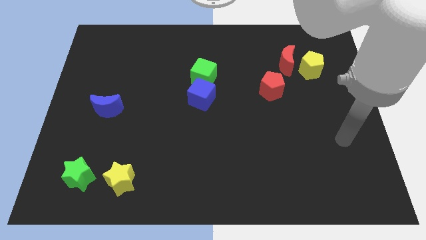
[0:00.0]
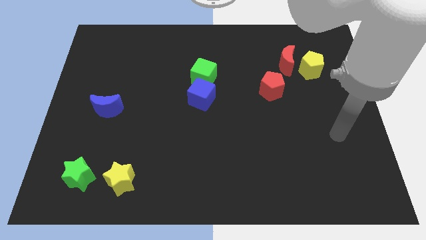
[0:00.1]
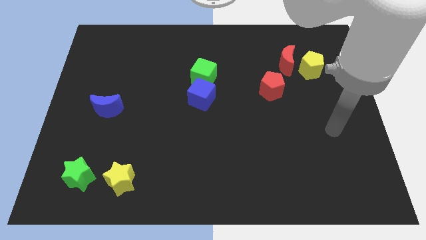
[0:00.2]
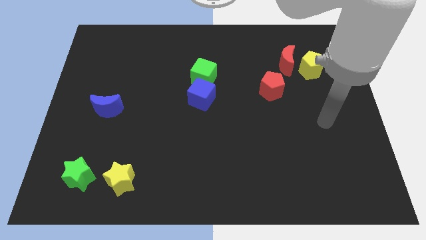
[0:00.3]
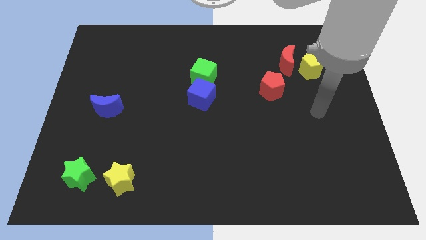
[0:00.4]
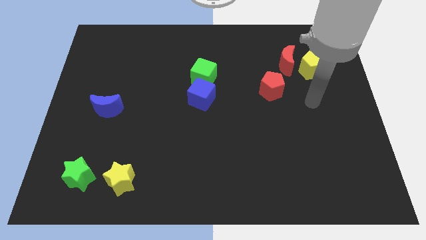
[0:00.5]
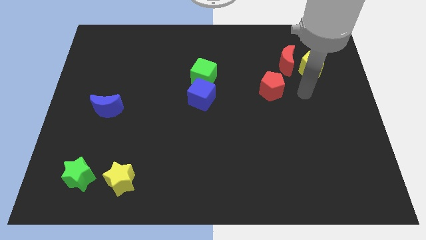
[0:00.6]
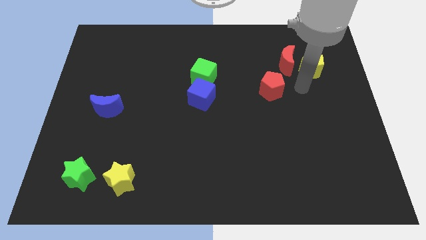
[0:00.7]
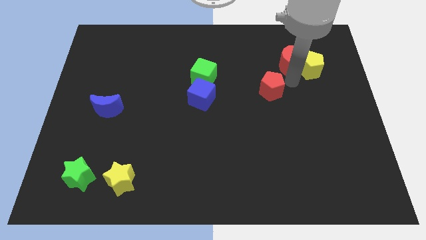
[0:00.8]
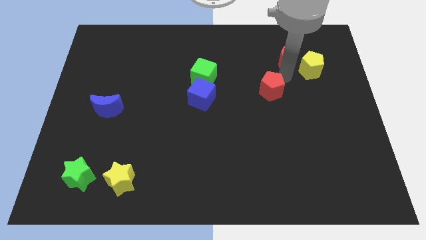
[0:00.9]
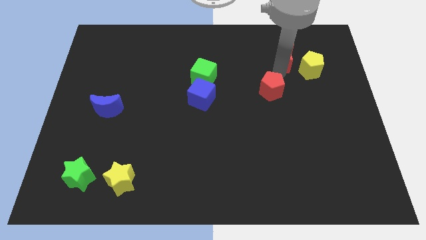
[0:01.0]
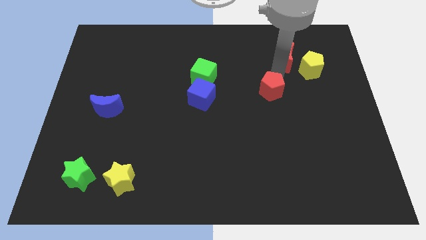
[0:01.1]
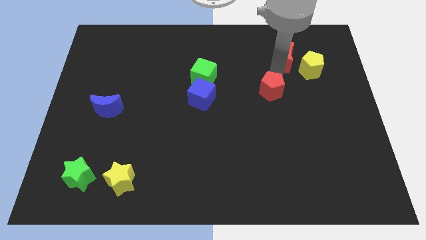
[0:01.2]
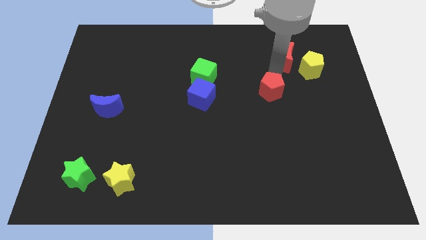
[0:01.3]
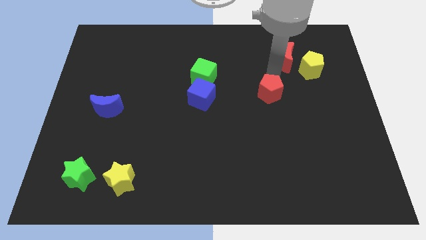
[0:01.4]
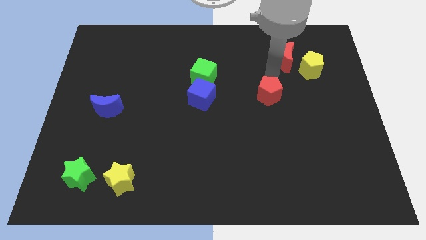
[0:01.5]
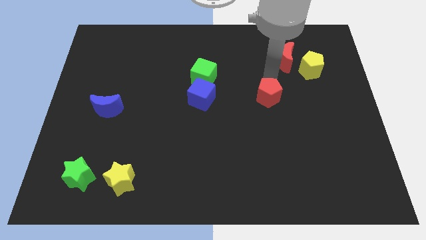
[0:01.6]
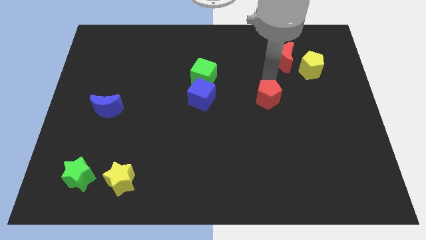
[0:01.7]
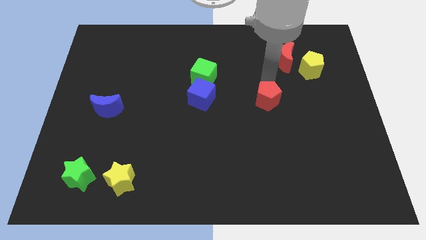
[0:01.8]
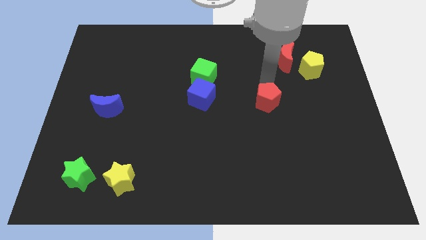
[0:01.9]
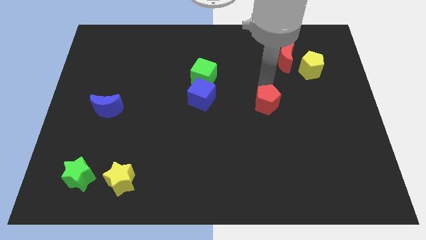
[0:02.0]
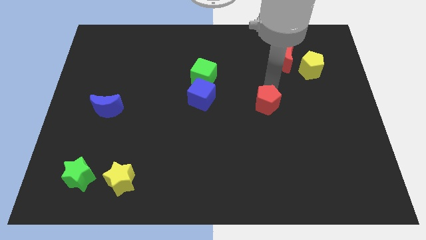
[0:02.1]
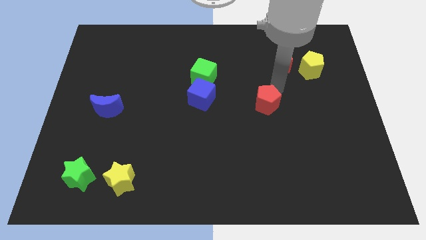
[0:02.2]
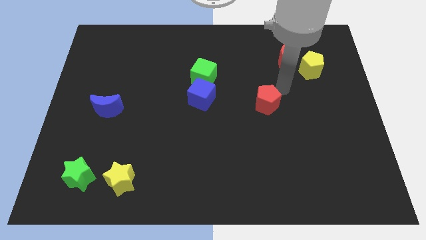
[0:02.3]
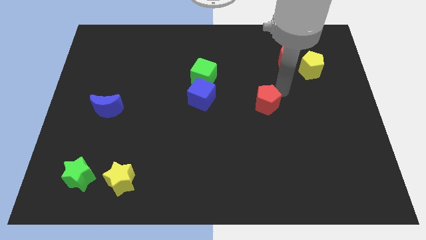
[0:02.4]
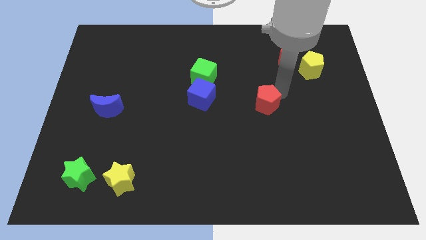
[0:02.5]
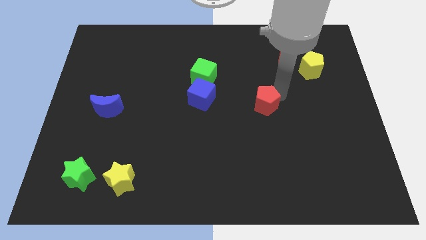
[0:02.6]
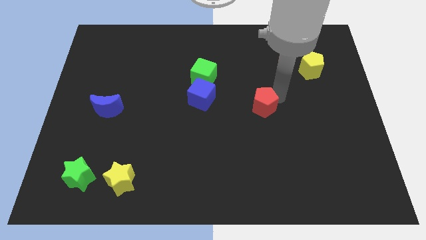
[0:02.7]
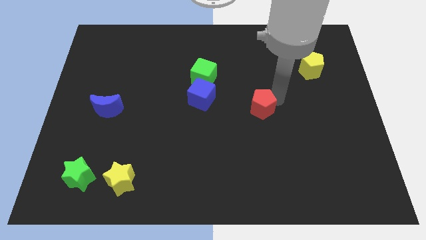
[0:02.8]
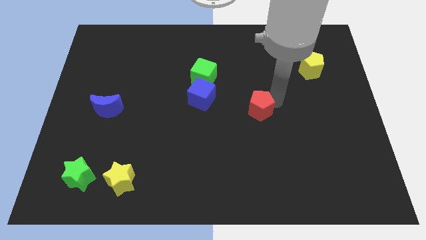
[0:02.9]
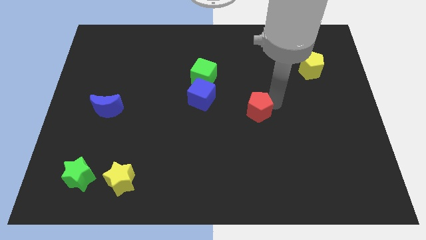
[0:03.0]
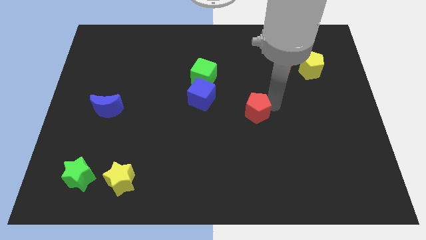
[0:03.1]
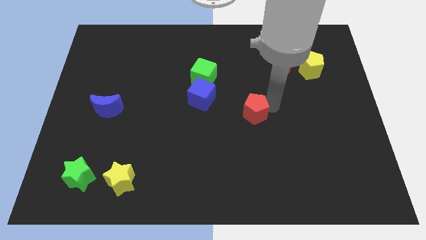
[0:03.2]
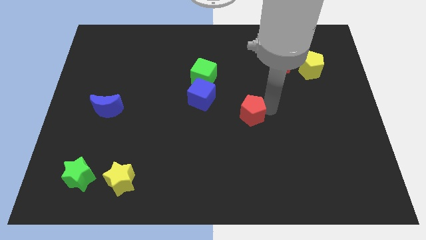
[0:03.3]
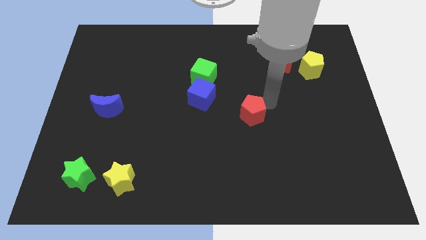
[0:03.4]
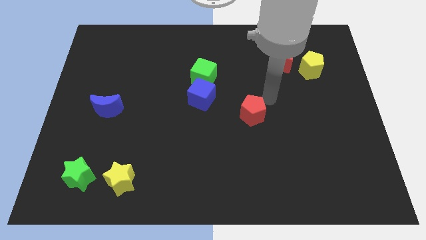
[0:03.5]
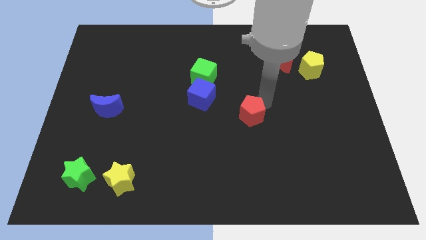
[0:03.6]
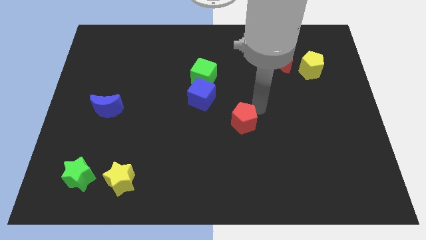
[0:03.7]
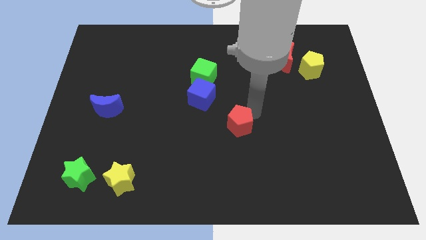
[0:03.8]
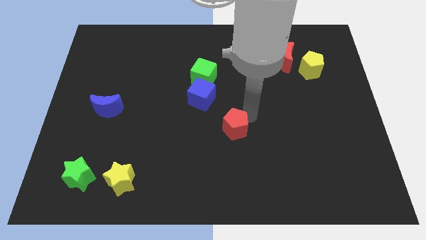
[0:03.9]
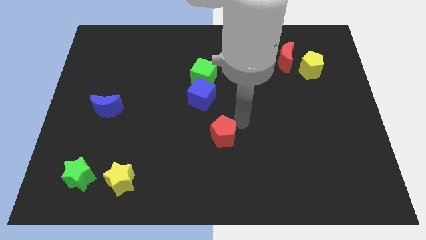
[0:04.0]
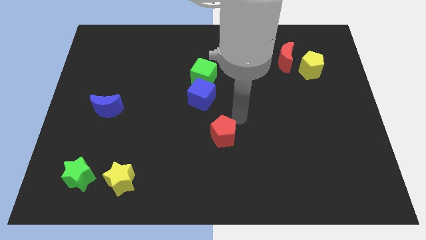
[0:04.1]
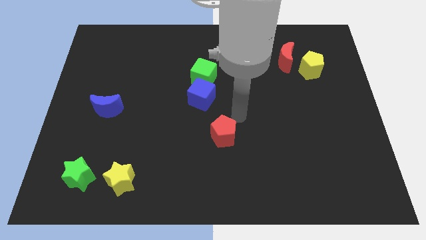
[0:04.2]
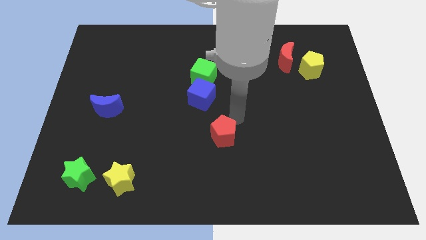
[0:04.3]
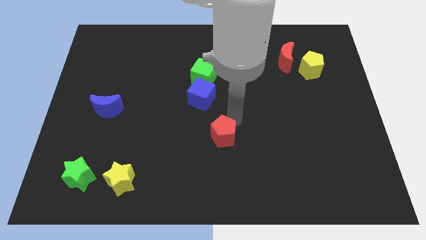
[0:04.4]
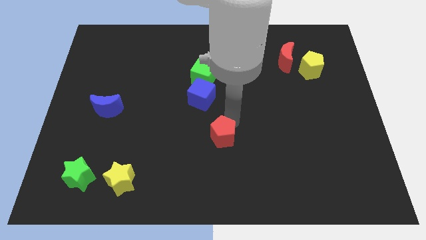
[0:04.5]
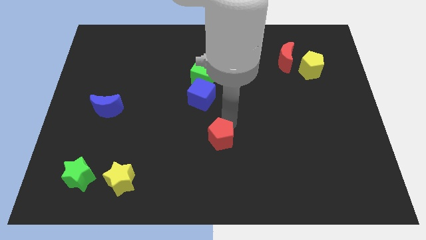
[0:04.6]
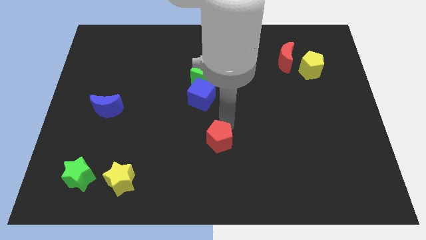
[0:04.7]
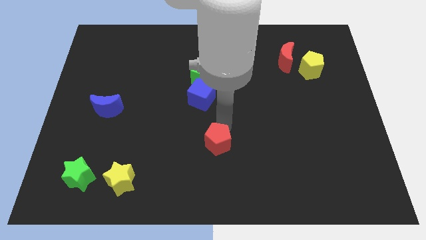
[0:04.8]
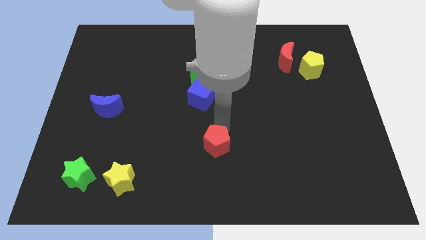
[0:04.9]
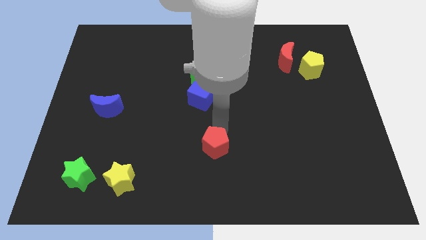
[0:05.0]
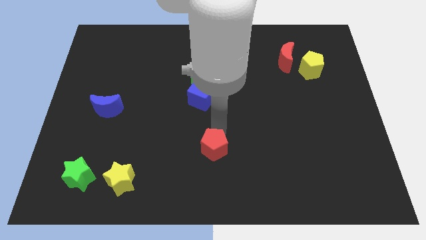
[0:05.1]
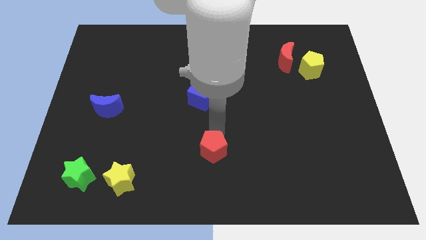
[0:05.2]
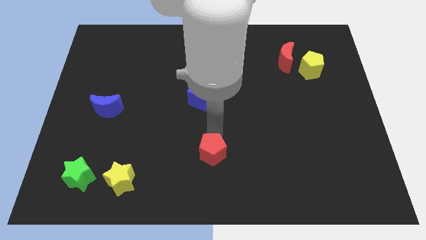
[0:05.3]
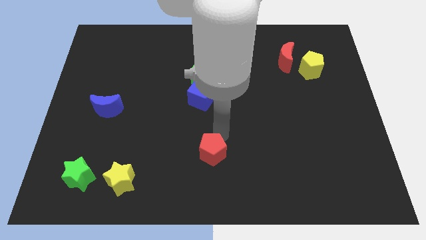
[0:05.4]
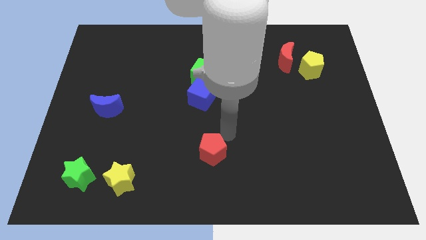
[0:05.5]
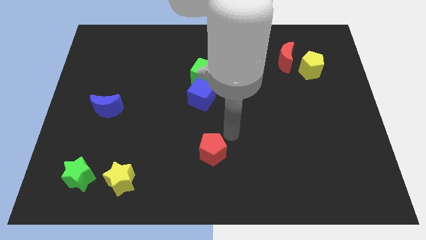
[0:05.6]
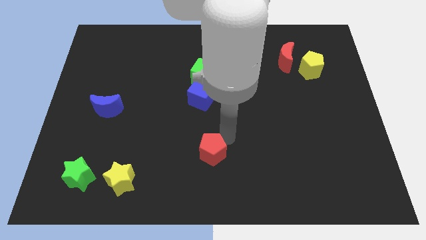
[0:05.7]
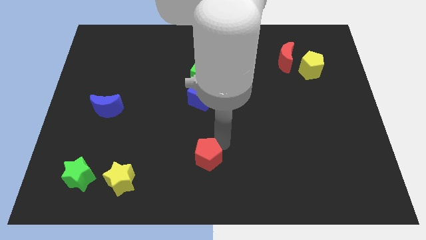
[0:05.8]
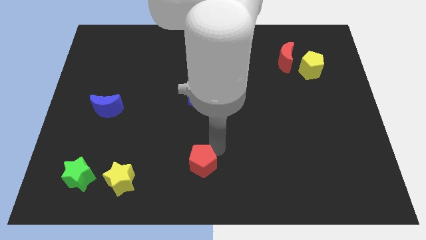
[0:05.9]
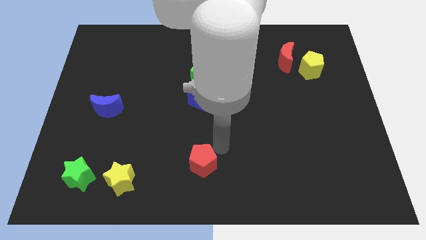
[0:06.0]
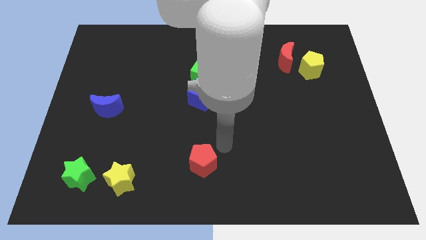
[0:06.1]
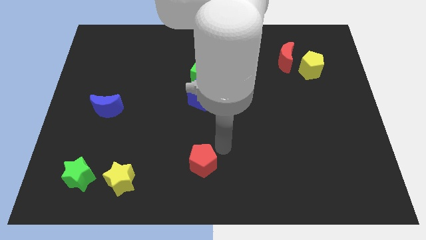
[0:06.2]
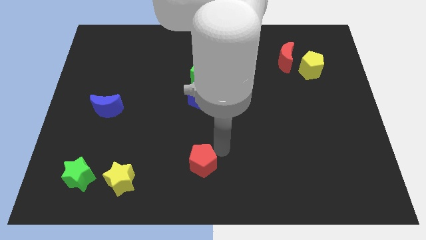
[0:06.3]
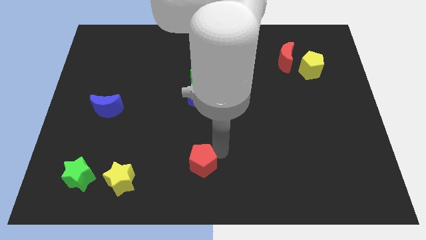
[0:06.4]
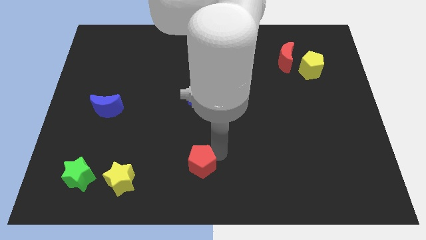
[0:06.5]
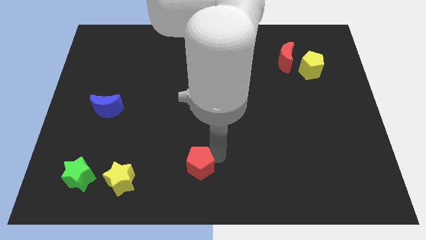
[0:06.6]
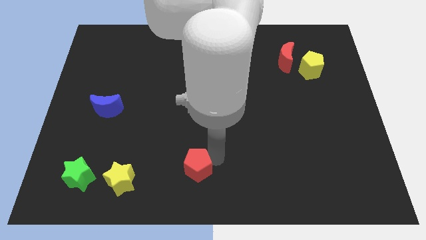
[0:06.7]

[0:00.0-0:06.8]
push the red pentagon to the right side of the yellow star
